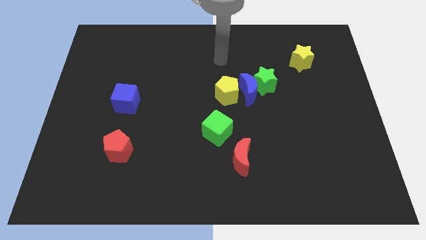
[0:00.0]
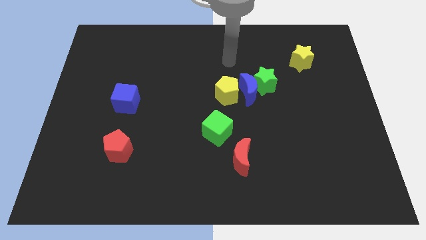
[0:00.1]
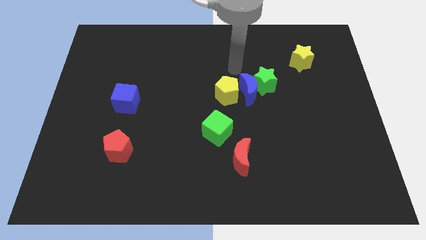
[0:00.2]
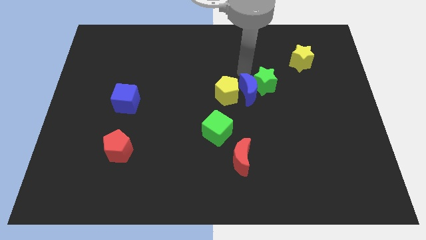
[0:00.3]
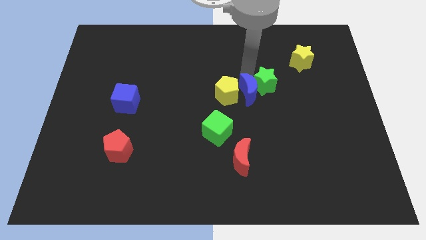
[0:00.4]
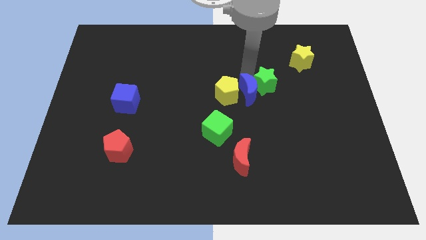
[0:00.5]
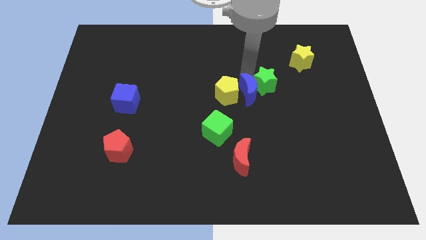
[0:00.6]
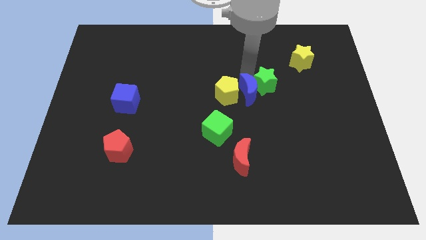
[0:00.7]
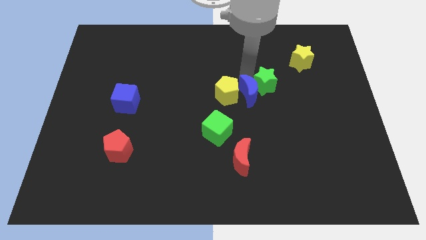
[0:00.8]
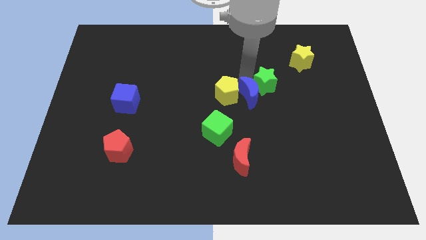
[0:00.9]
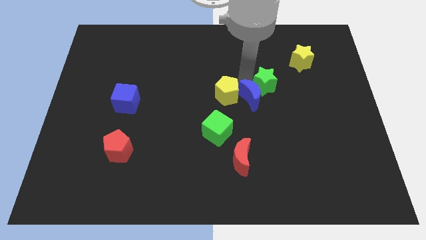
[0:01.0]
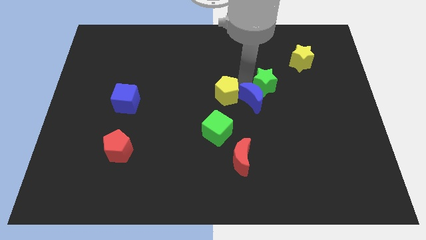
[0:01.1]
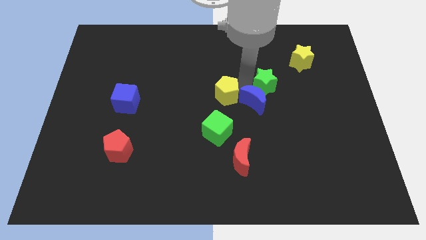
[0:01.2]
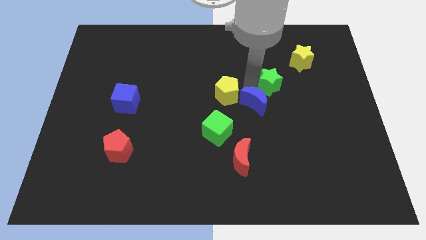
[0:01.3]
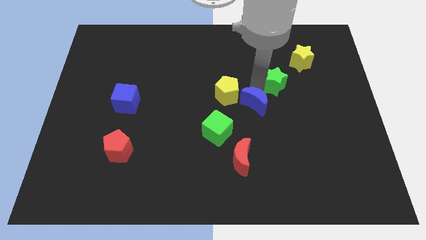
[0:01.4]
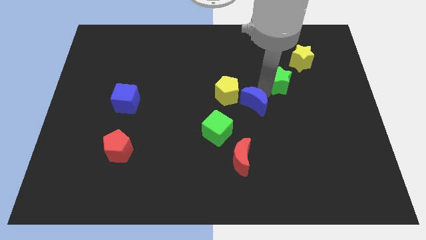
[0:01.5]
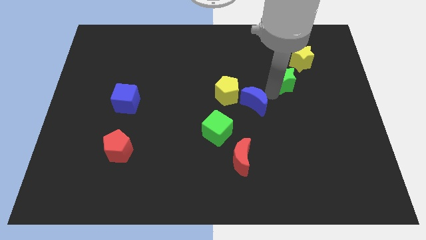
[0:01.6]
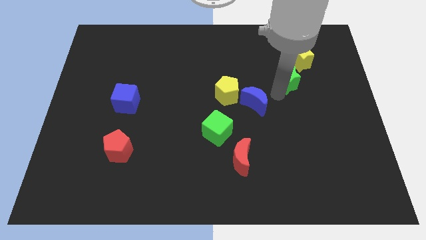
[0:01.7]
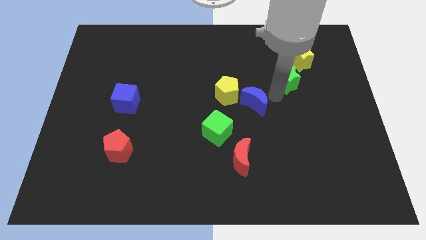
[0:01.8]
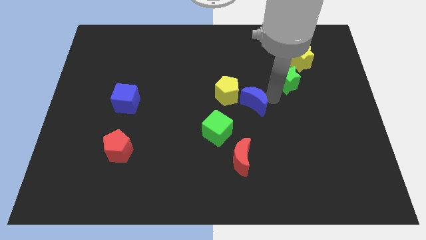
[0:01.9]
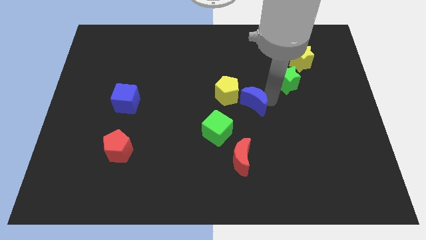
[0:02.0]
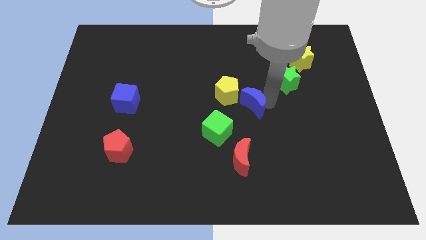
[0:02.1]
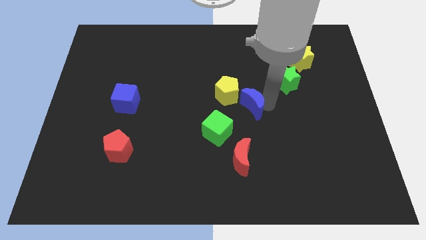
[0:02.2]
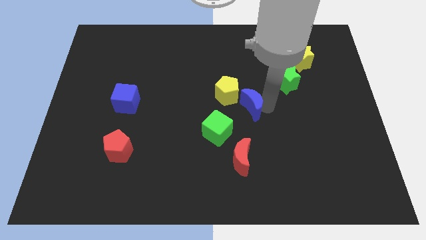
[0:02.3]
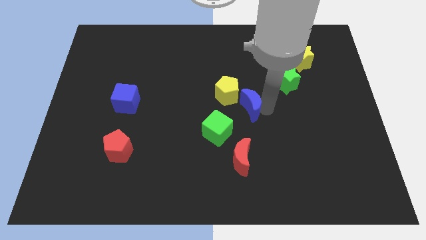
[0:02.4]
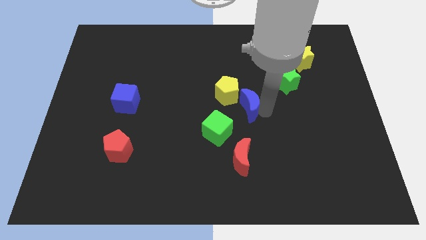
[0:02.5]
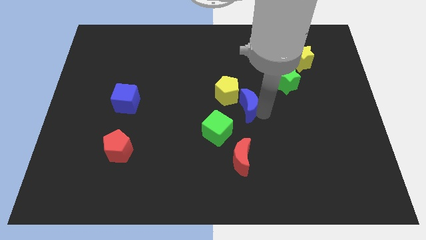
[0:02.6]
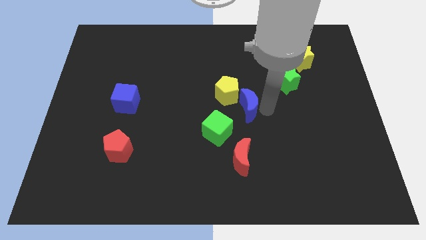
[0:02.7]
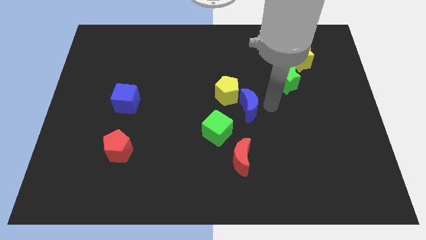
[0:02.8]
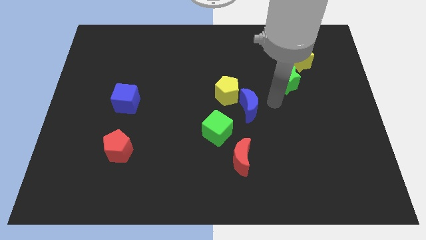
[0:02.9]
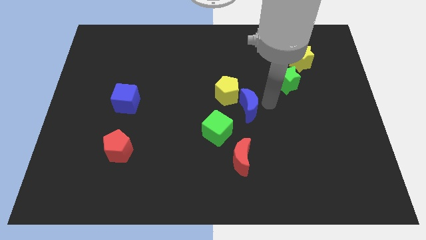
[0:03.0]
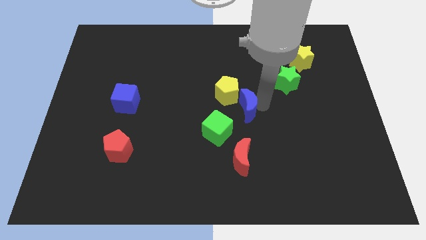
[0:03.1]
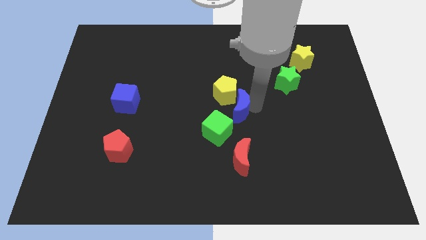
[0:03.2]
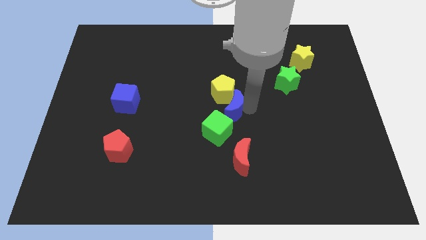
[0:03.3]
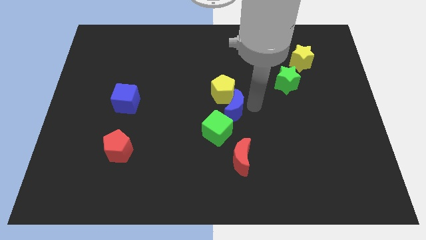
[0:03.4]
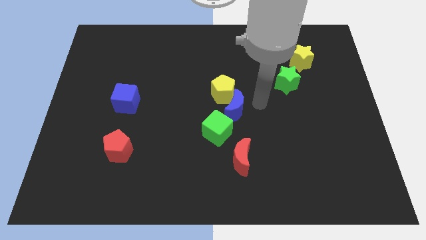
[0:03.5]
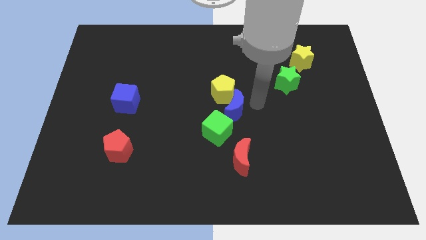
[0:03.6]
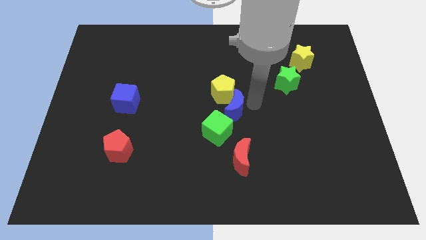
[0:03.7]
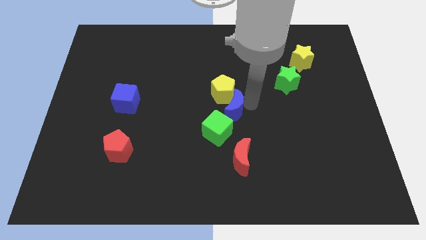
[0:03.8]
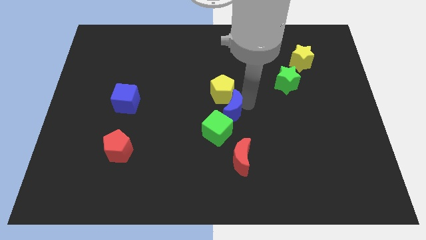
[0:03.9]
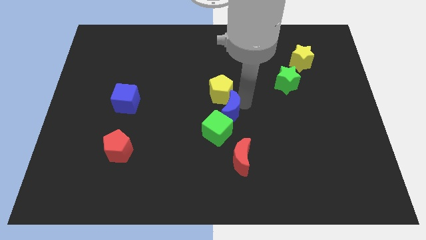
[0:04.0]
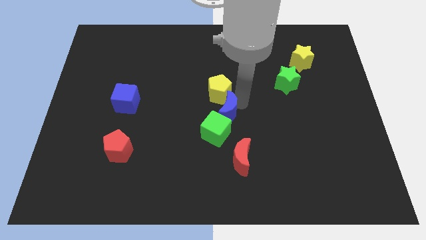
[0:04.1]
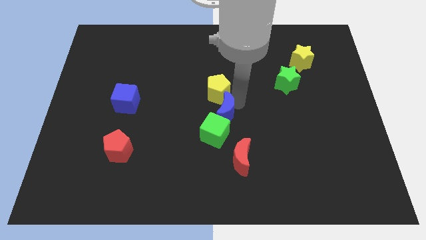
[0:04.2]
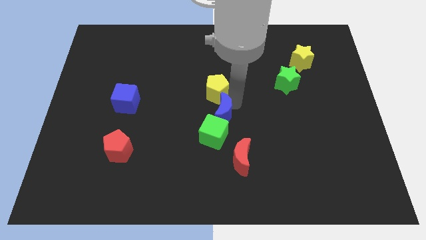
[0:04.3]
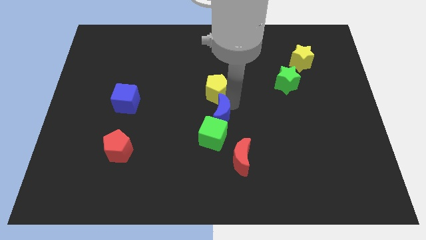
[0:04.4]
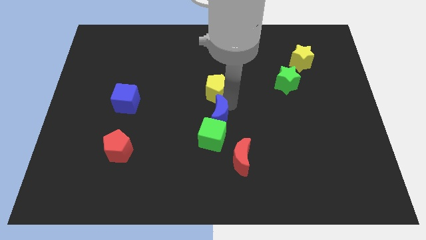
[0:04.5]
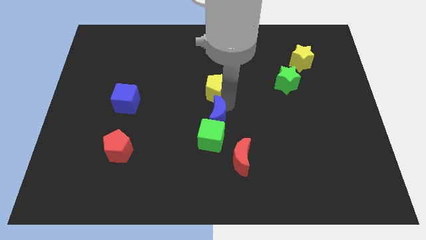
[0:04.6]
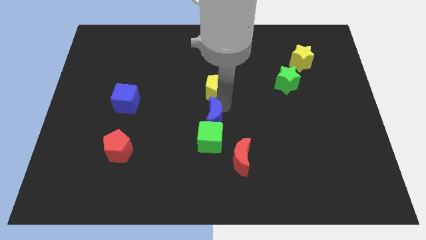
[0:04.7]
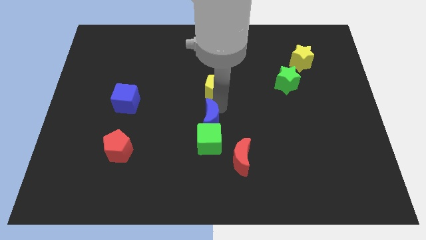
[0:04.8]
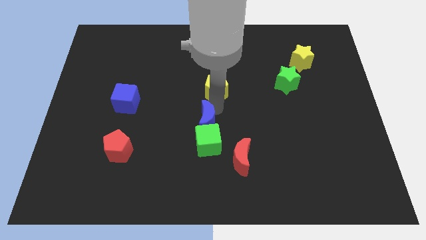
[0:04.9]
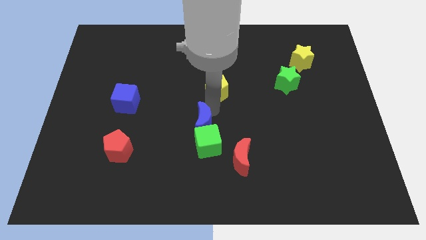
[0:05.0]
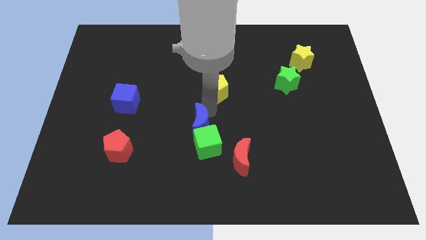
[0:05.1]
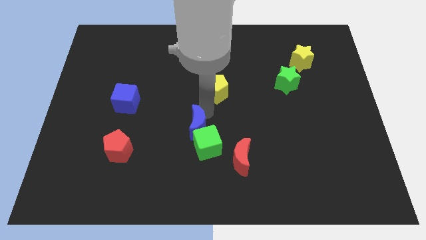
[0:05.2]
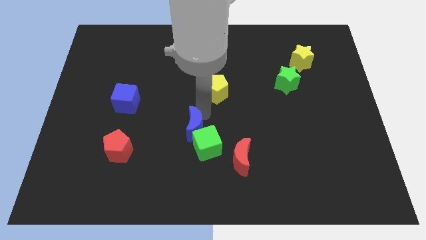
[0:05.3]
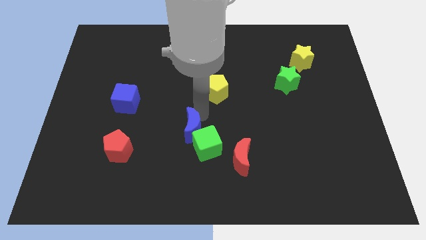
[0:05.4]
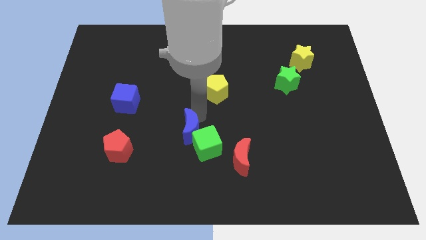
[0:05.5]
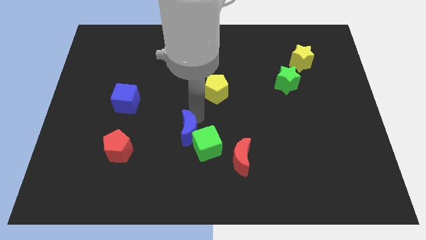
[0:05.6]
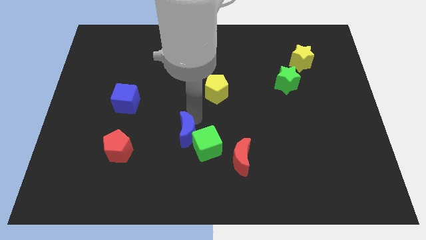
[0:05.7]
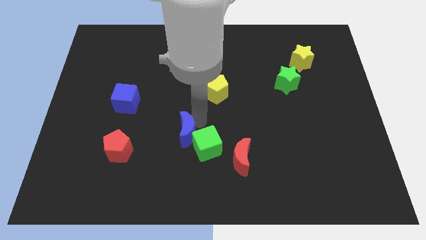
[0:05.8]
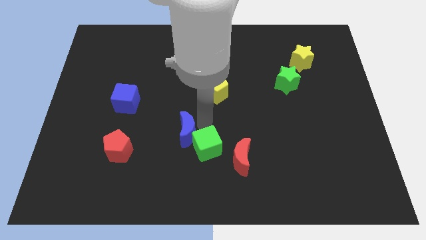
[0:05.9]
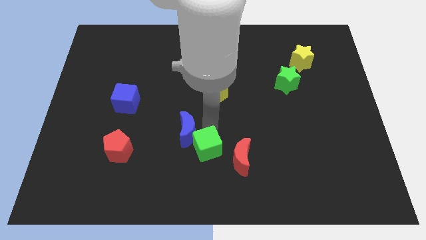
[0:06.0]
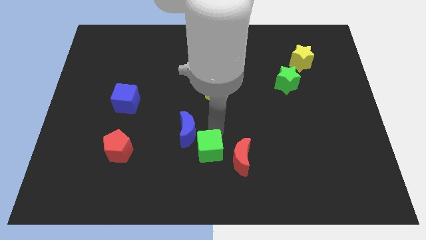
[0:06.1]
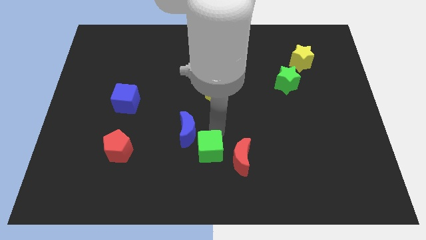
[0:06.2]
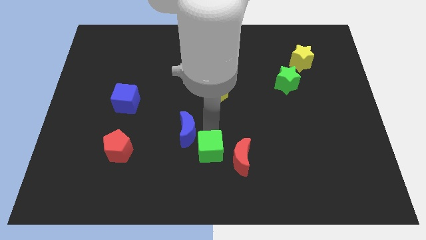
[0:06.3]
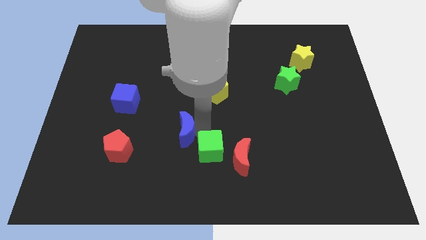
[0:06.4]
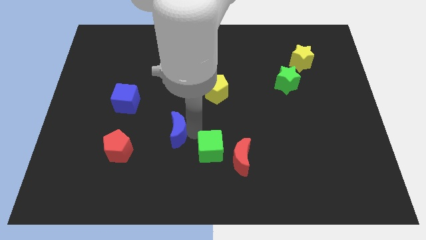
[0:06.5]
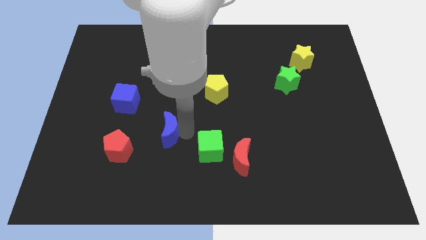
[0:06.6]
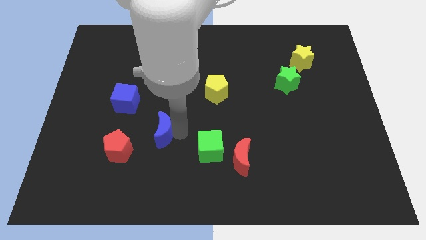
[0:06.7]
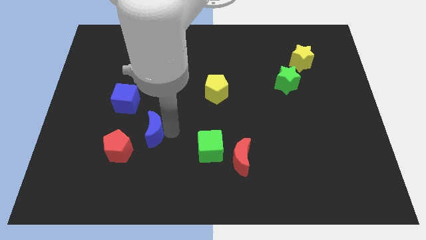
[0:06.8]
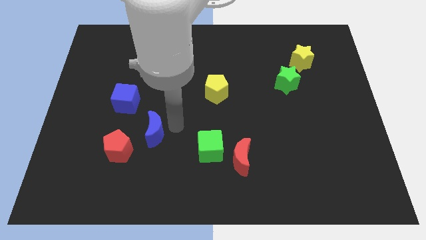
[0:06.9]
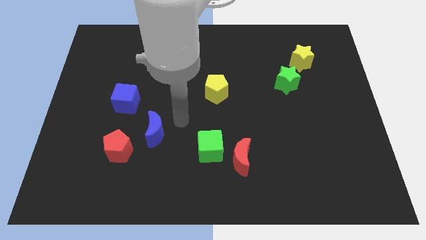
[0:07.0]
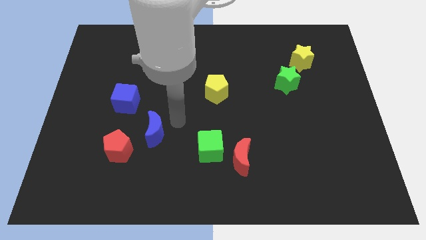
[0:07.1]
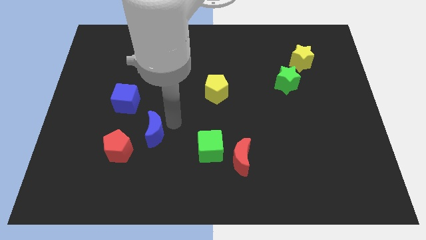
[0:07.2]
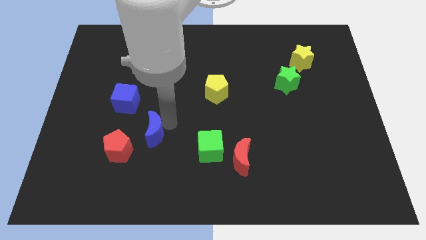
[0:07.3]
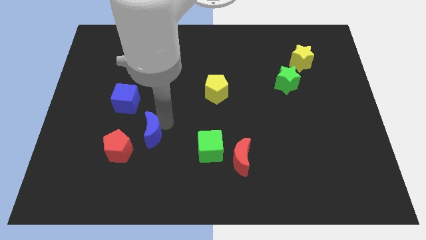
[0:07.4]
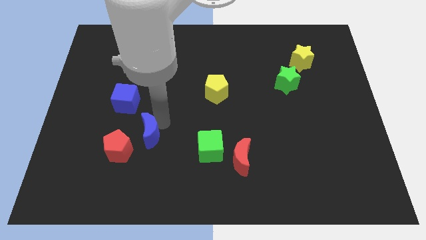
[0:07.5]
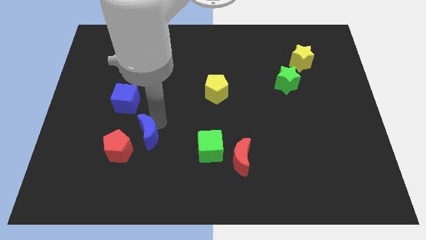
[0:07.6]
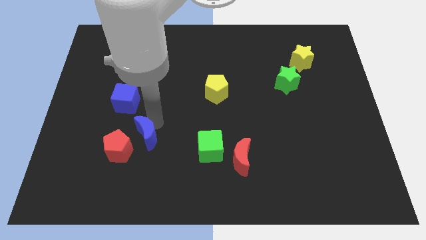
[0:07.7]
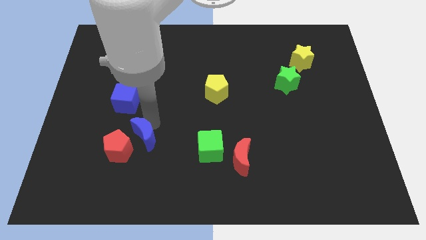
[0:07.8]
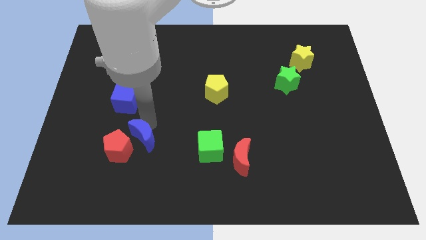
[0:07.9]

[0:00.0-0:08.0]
put the blue moon to the red pentagon

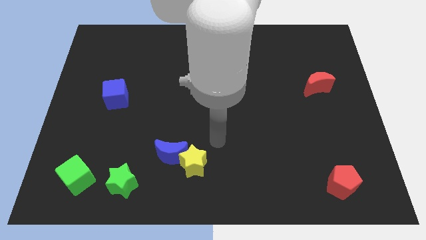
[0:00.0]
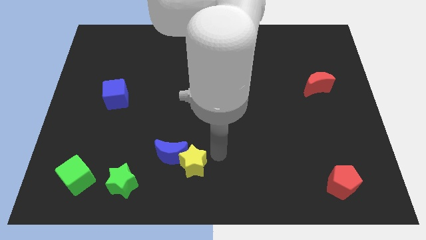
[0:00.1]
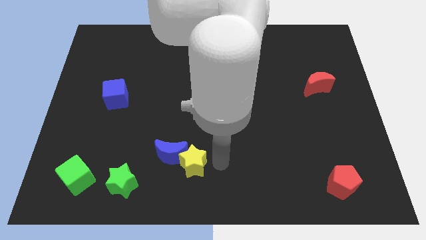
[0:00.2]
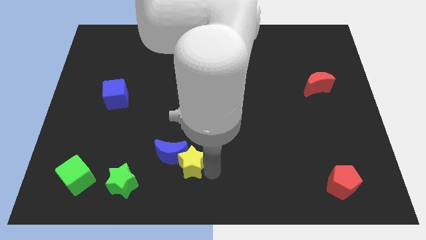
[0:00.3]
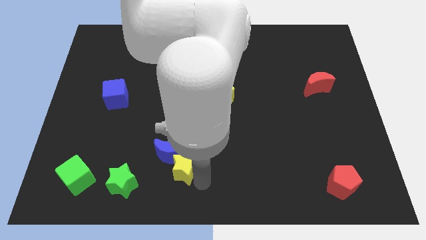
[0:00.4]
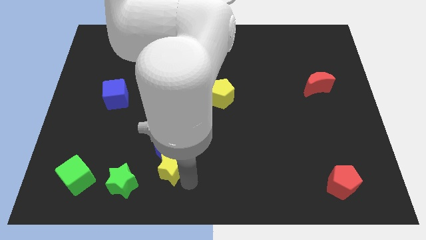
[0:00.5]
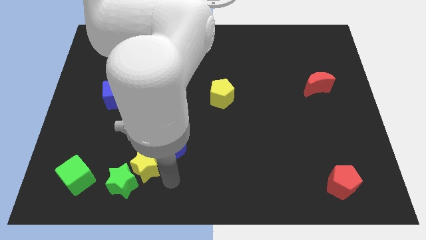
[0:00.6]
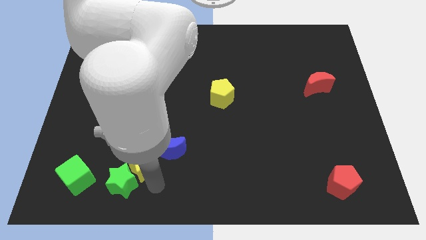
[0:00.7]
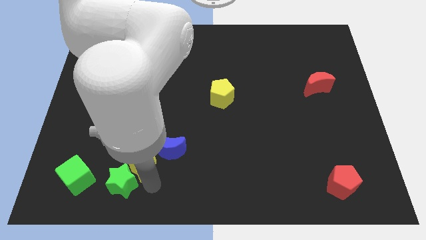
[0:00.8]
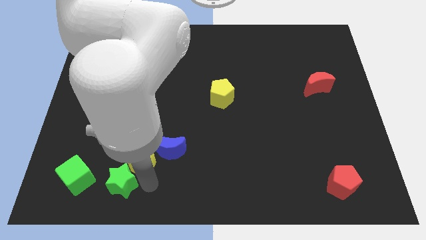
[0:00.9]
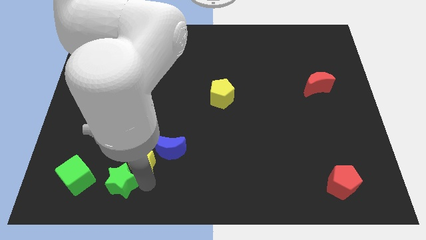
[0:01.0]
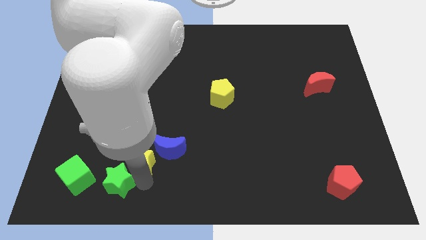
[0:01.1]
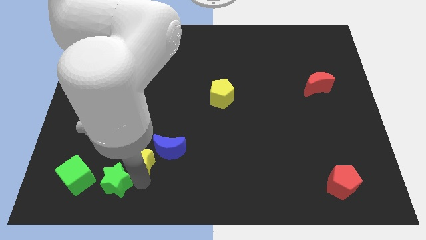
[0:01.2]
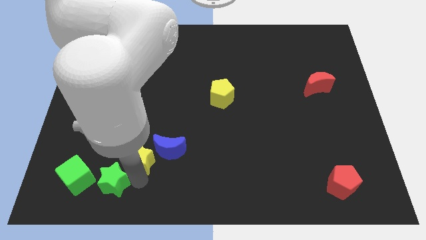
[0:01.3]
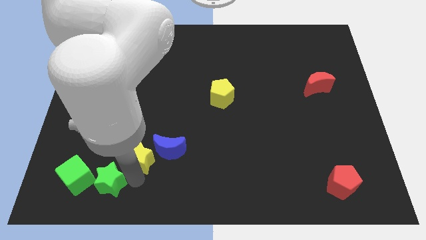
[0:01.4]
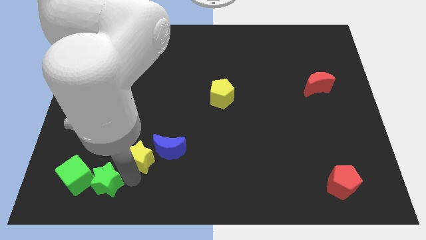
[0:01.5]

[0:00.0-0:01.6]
slide the green star towards the green cube
